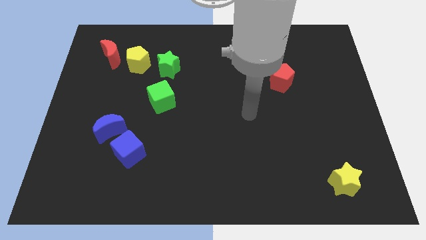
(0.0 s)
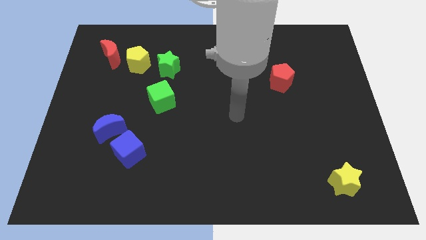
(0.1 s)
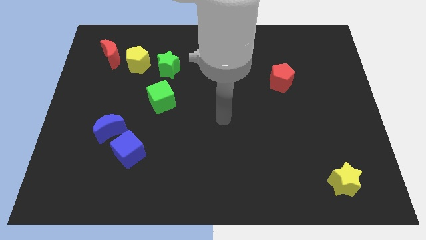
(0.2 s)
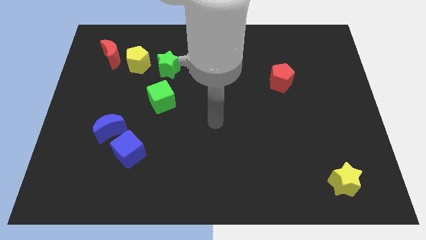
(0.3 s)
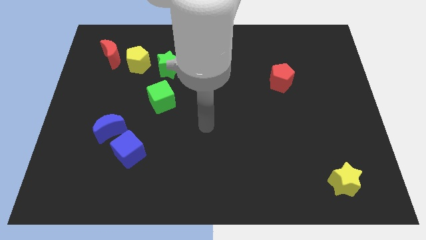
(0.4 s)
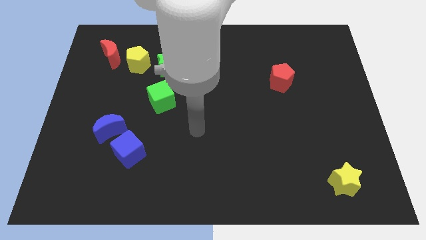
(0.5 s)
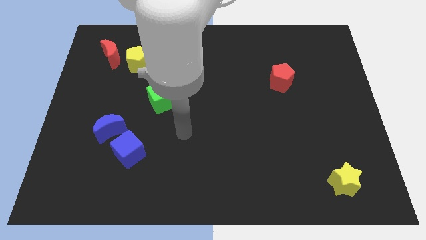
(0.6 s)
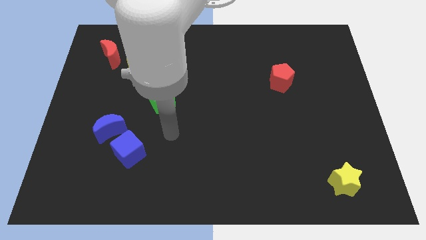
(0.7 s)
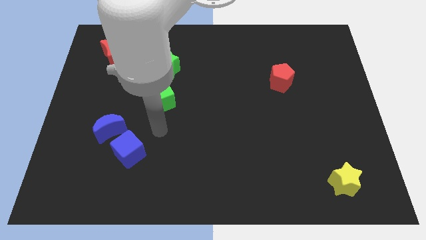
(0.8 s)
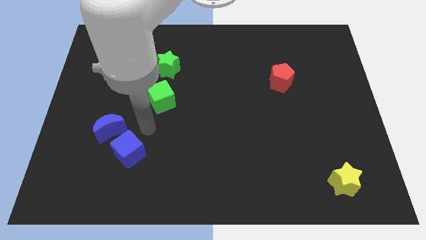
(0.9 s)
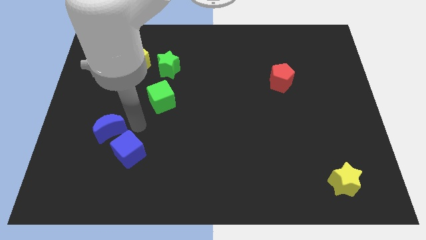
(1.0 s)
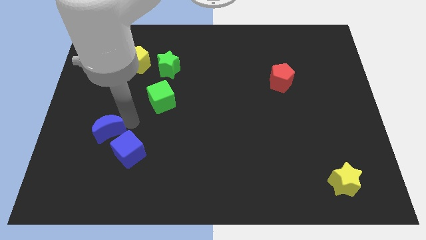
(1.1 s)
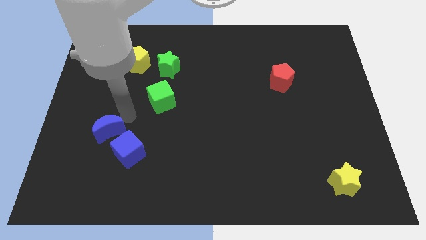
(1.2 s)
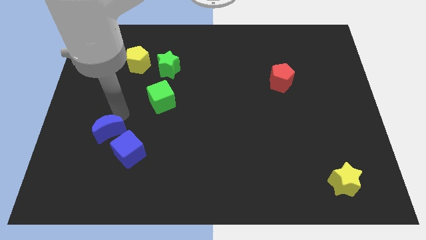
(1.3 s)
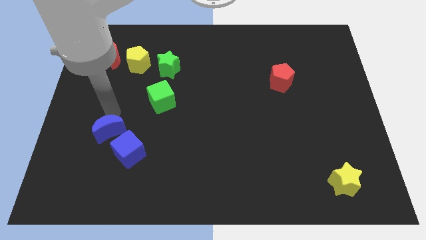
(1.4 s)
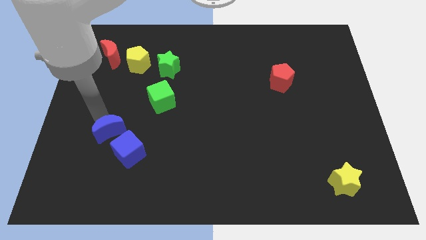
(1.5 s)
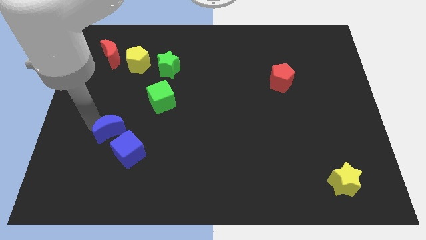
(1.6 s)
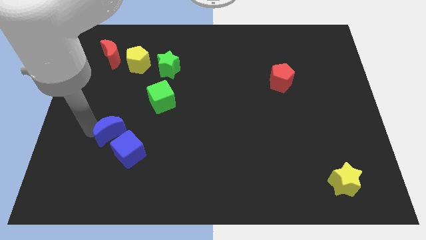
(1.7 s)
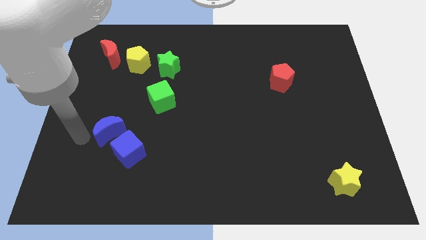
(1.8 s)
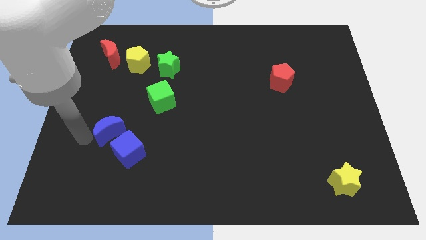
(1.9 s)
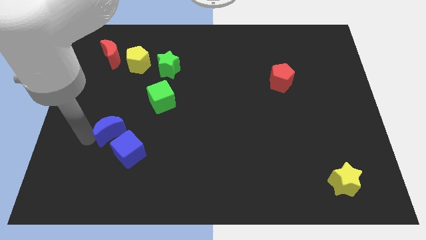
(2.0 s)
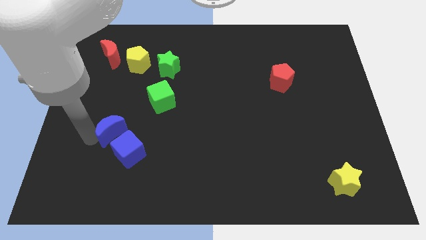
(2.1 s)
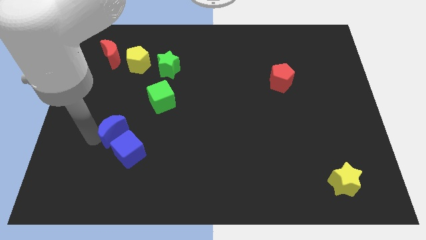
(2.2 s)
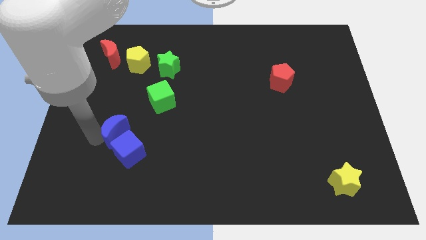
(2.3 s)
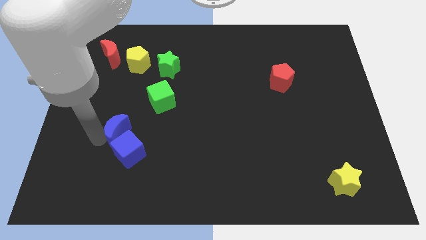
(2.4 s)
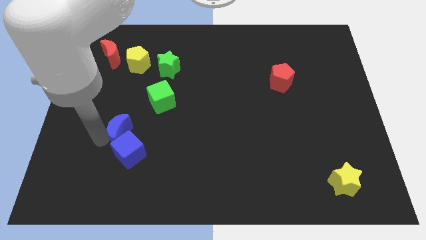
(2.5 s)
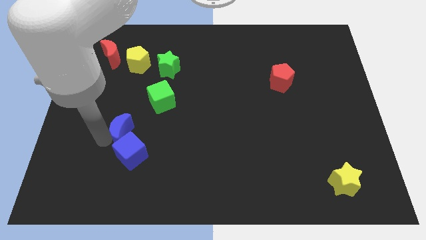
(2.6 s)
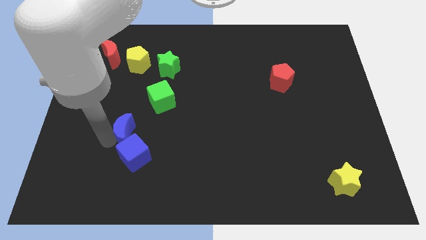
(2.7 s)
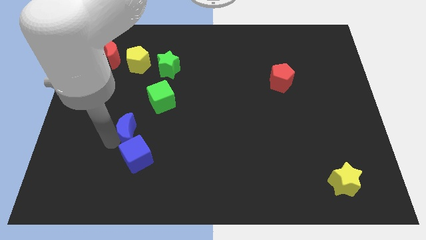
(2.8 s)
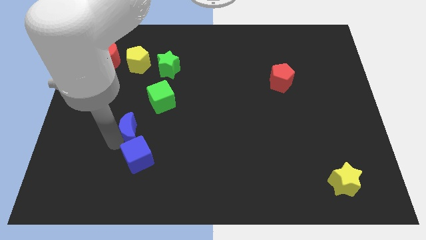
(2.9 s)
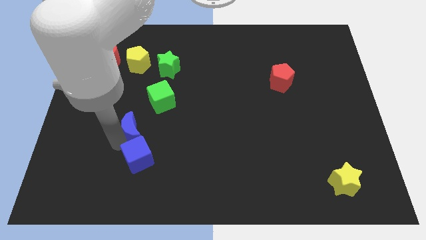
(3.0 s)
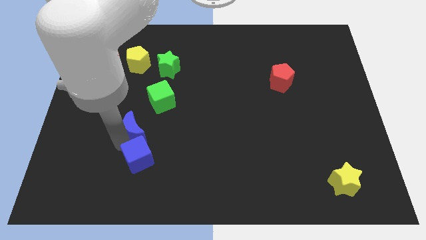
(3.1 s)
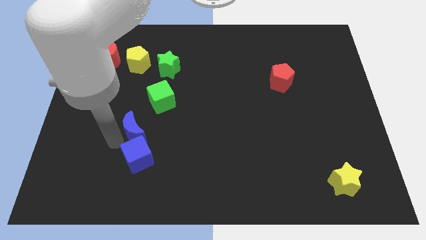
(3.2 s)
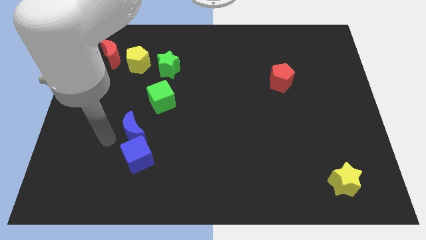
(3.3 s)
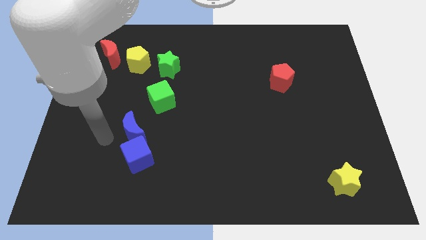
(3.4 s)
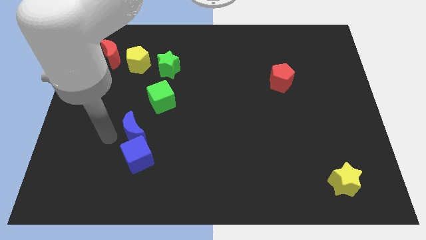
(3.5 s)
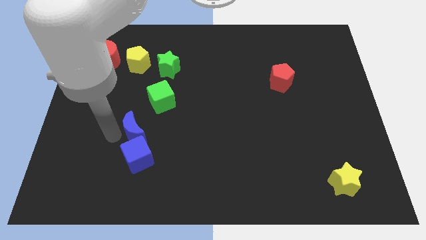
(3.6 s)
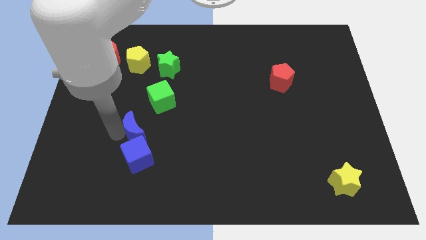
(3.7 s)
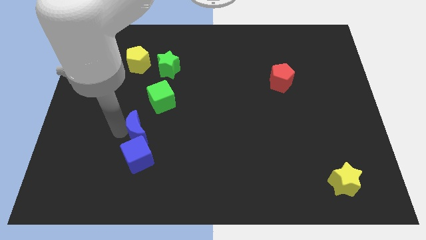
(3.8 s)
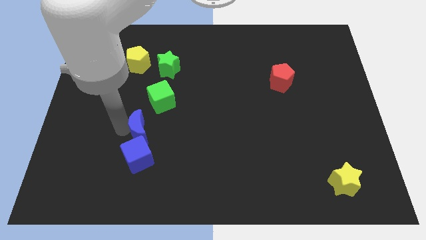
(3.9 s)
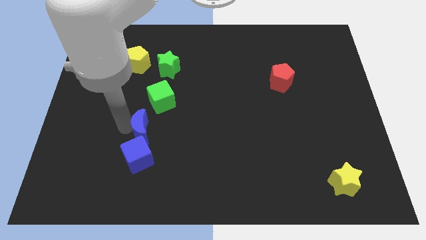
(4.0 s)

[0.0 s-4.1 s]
slightly push the blue moon to the right

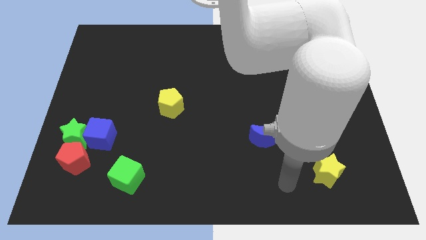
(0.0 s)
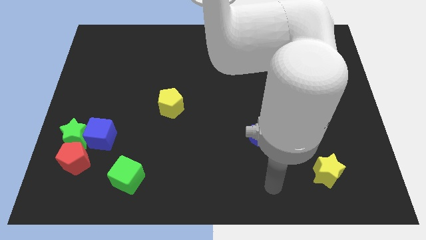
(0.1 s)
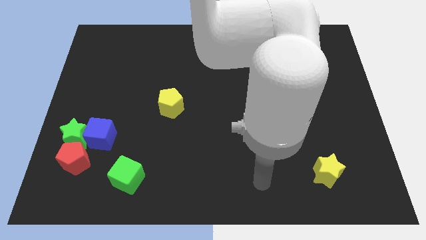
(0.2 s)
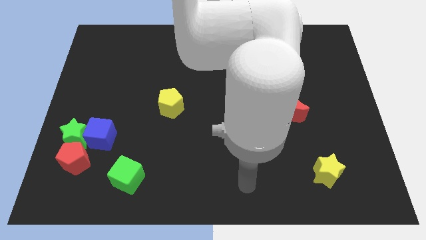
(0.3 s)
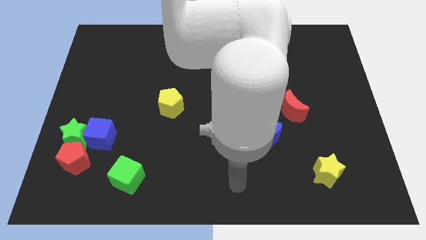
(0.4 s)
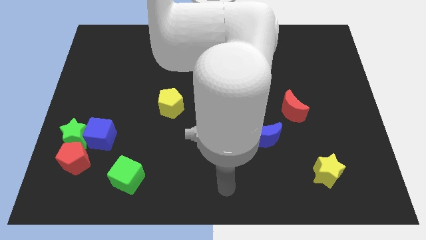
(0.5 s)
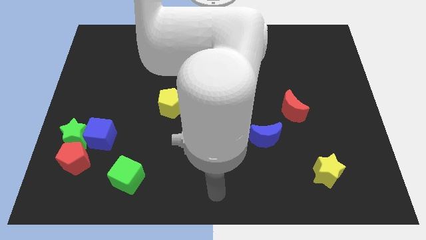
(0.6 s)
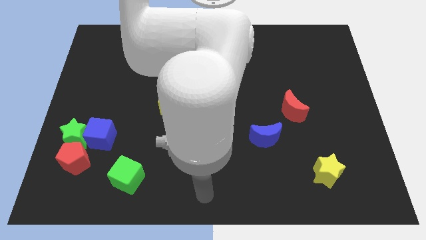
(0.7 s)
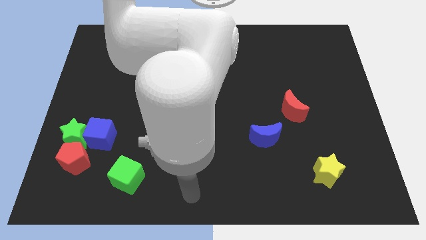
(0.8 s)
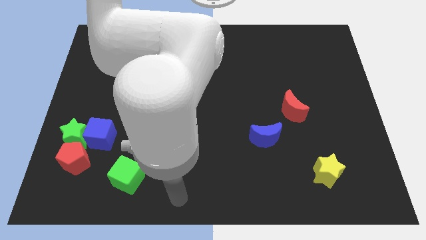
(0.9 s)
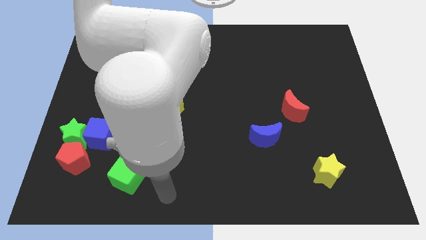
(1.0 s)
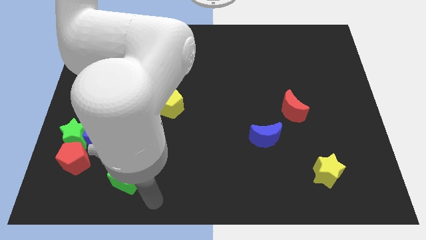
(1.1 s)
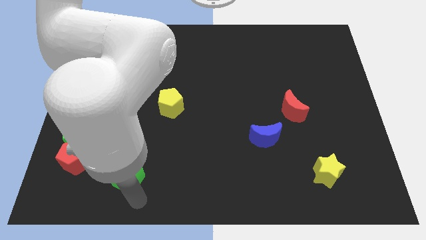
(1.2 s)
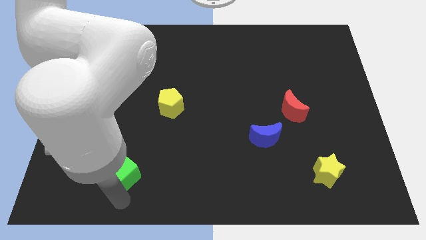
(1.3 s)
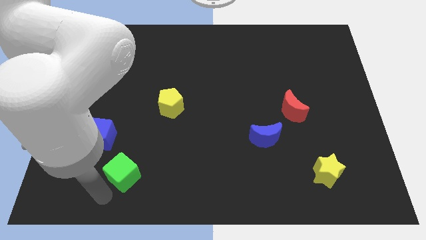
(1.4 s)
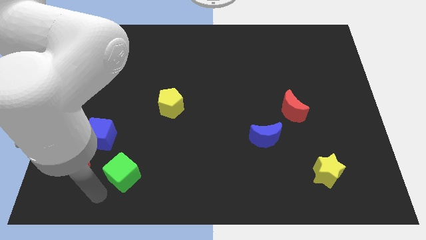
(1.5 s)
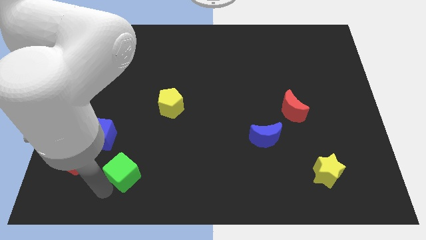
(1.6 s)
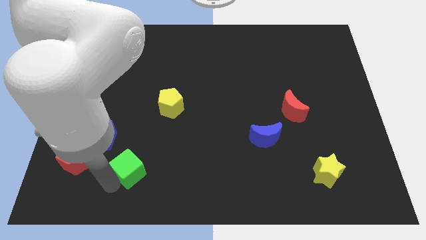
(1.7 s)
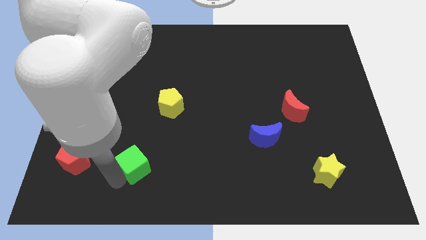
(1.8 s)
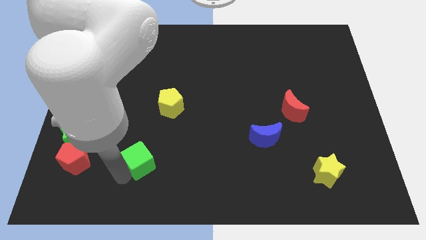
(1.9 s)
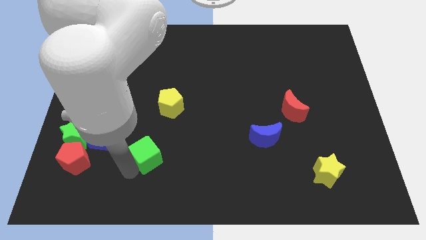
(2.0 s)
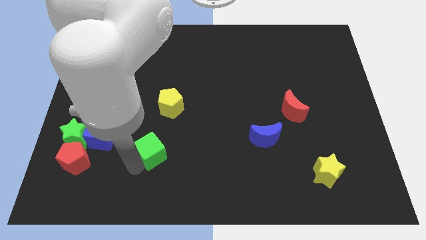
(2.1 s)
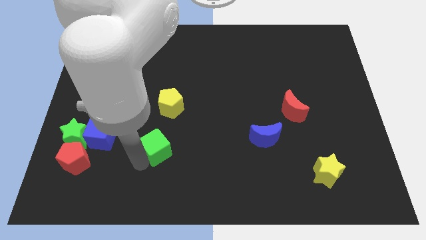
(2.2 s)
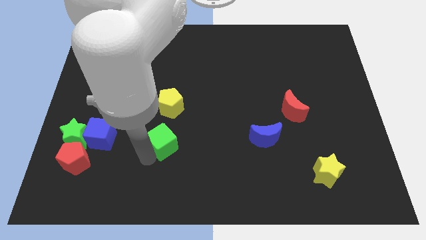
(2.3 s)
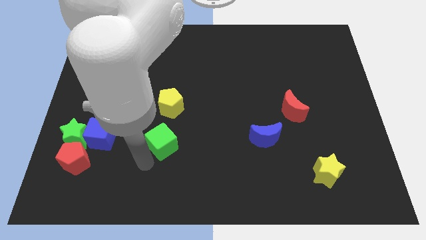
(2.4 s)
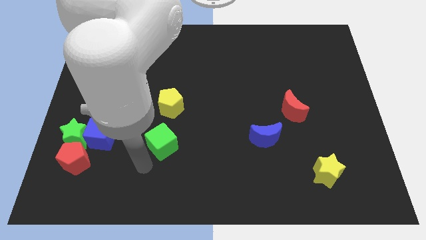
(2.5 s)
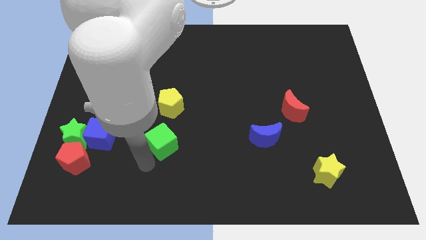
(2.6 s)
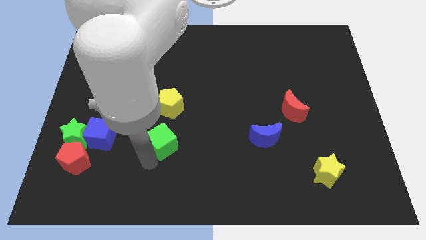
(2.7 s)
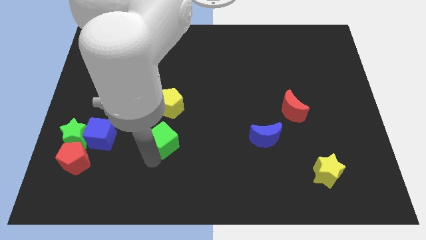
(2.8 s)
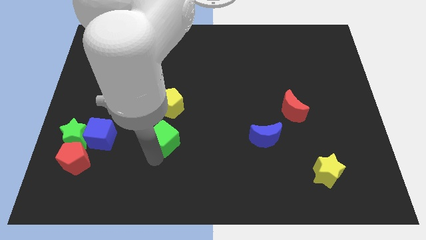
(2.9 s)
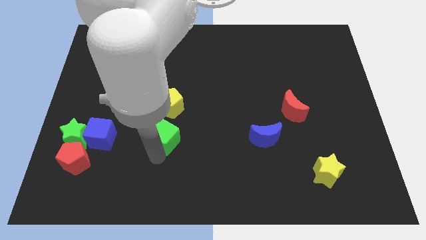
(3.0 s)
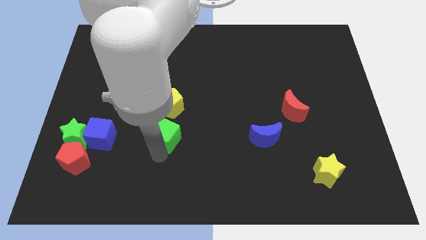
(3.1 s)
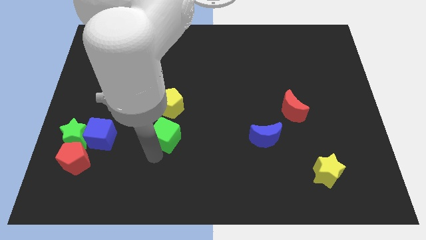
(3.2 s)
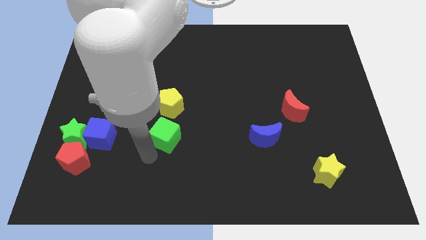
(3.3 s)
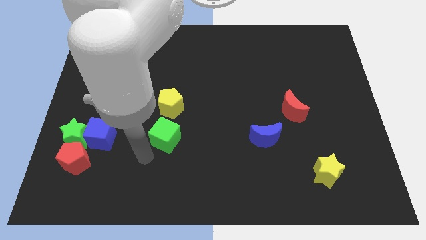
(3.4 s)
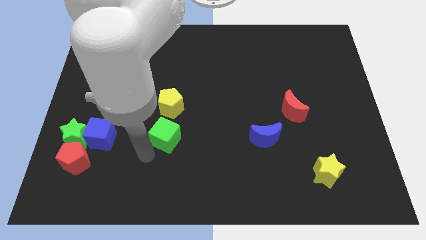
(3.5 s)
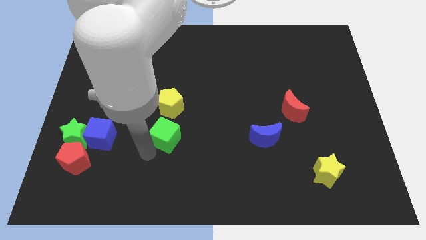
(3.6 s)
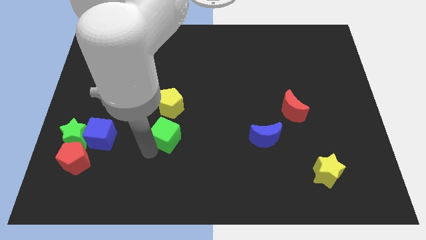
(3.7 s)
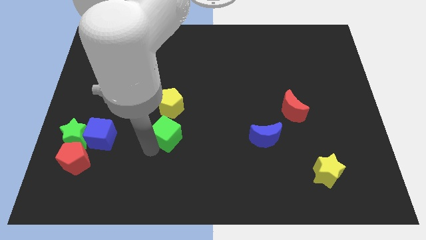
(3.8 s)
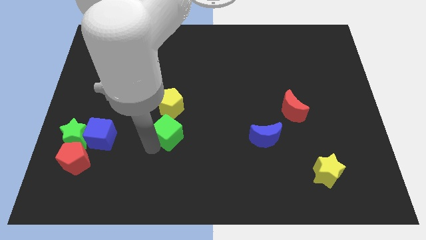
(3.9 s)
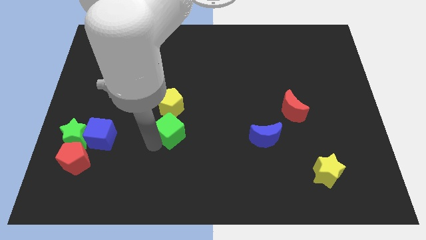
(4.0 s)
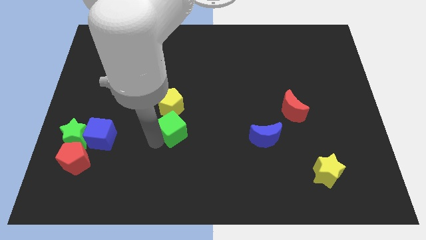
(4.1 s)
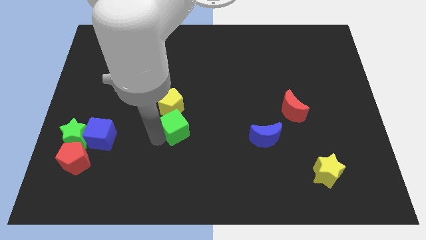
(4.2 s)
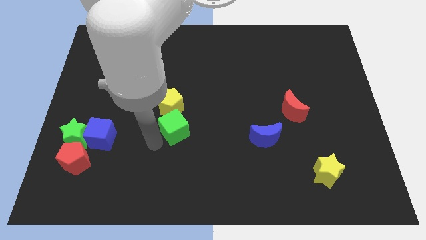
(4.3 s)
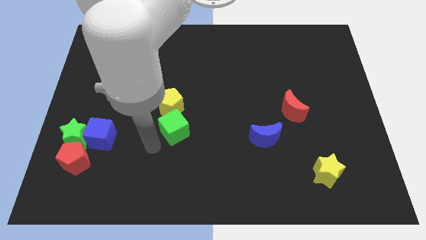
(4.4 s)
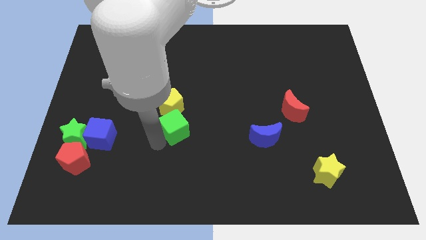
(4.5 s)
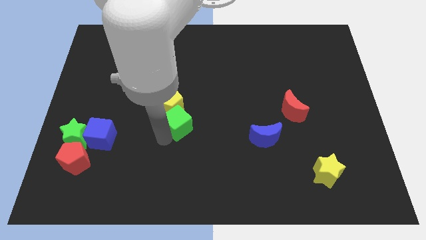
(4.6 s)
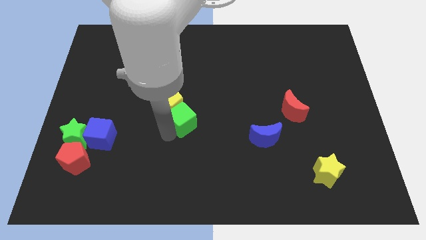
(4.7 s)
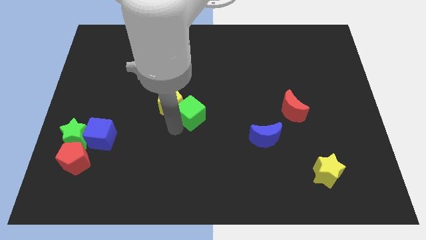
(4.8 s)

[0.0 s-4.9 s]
slide the green cube upwards and to the right

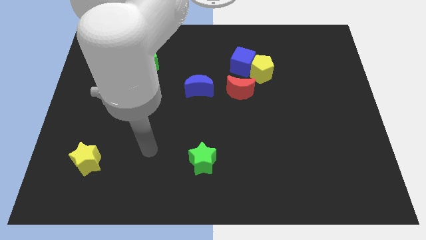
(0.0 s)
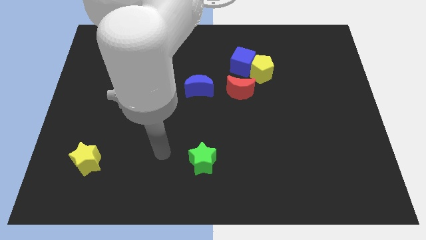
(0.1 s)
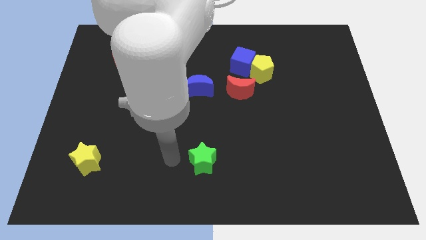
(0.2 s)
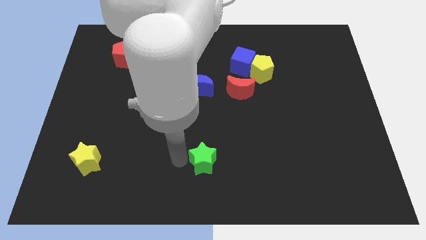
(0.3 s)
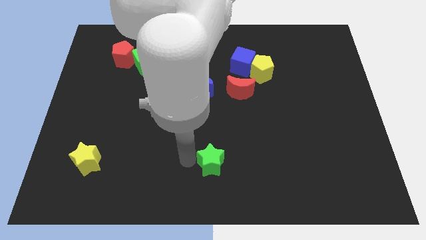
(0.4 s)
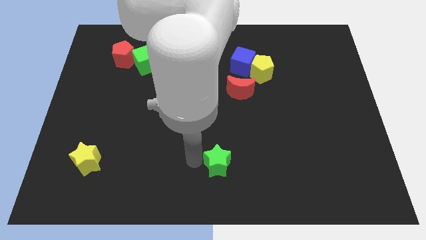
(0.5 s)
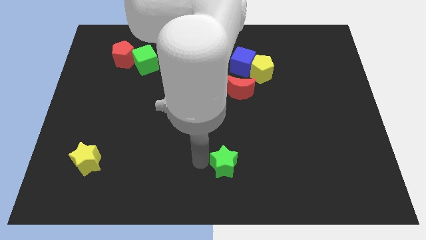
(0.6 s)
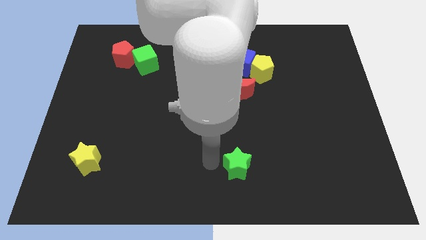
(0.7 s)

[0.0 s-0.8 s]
slide the green star a bit to the right
